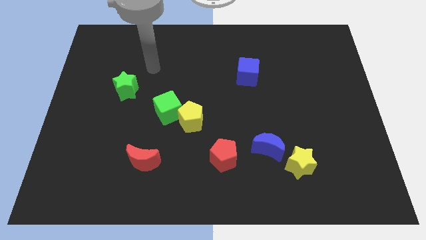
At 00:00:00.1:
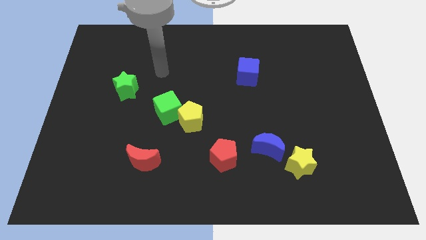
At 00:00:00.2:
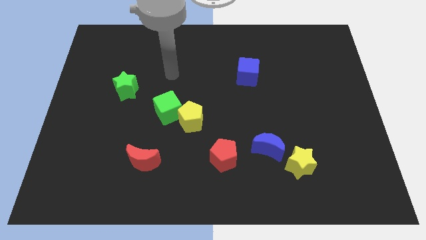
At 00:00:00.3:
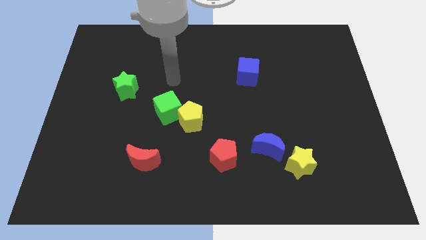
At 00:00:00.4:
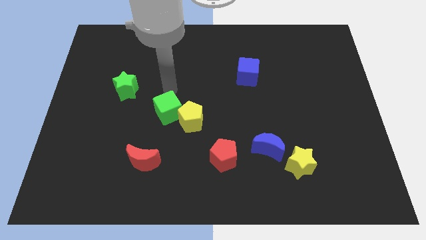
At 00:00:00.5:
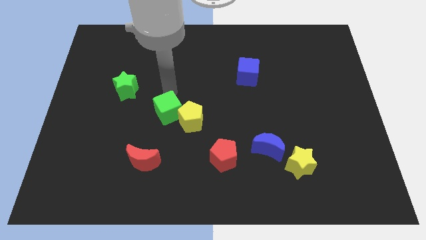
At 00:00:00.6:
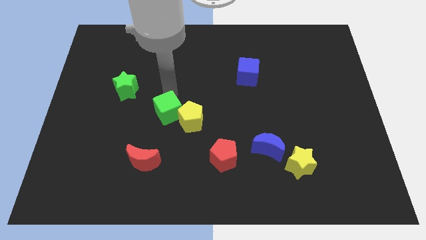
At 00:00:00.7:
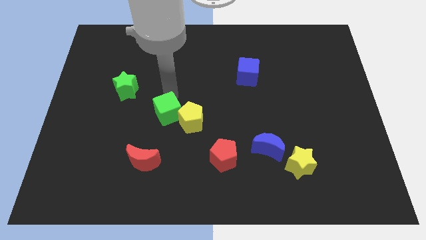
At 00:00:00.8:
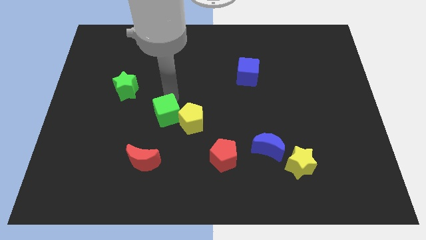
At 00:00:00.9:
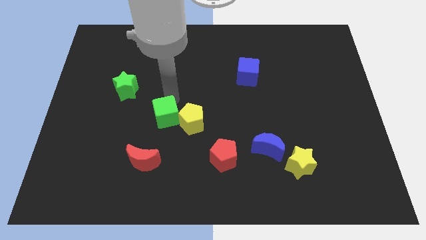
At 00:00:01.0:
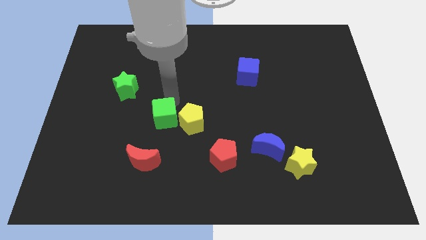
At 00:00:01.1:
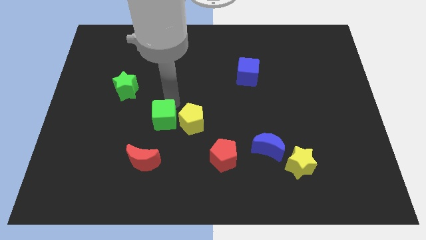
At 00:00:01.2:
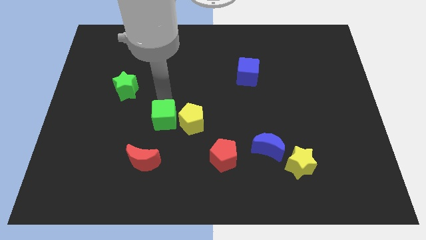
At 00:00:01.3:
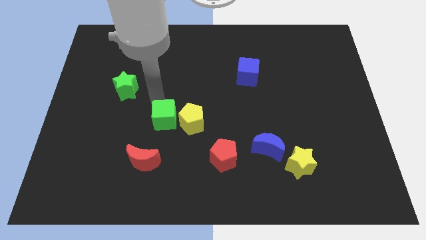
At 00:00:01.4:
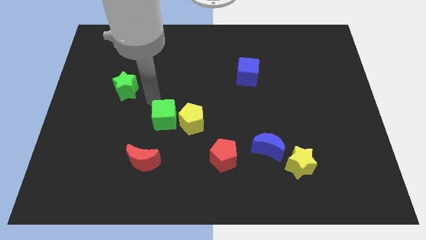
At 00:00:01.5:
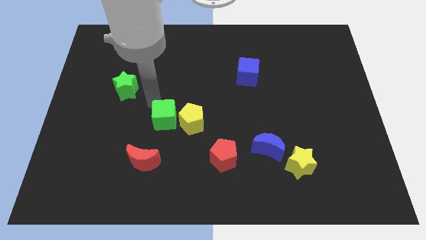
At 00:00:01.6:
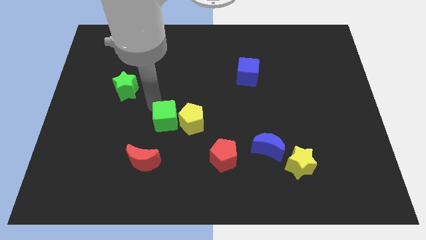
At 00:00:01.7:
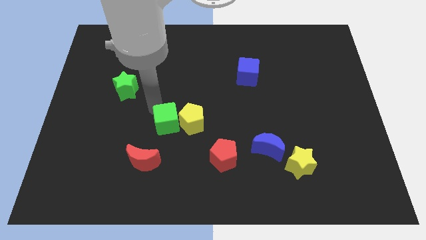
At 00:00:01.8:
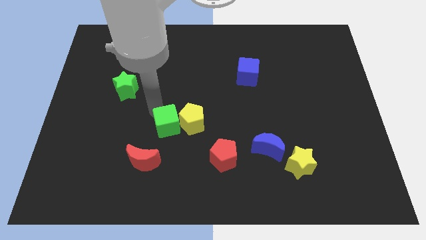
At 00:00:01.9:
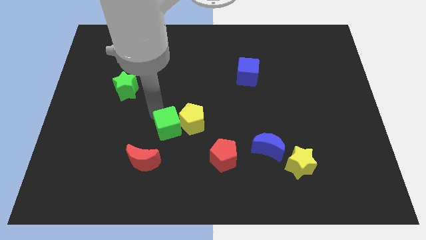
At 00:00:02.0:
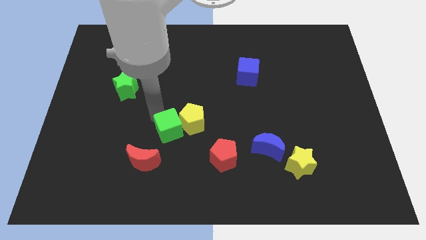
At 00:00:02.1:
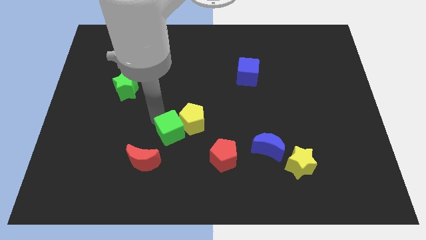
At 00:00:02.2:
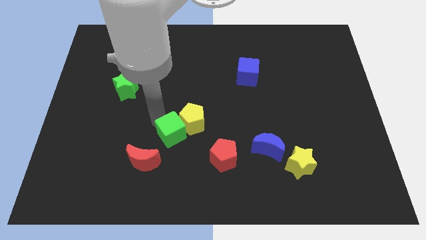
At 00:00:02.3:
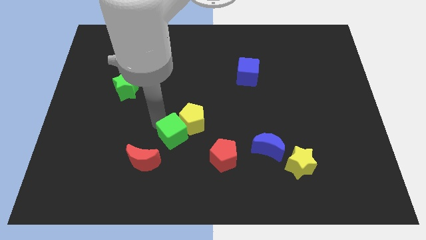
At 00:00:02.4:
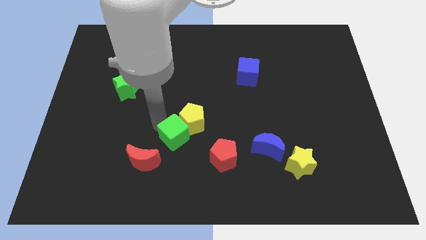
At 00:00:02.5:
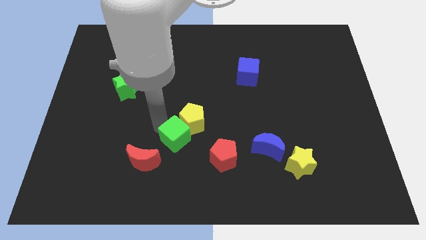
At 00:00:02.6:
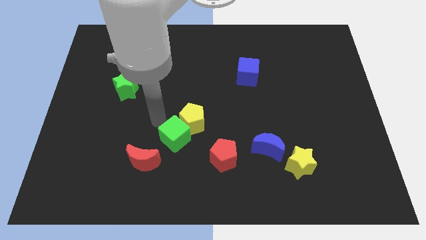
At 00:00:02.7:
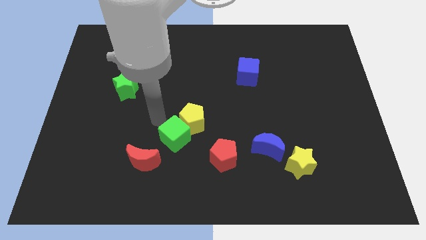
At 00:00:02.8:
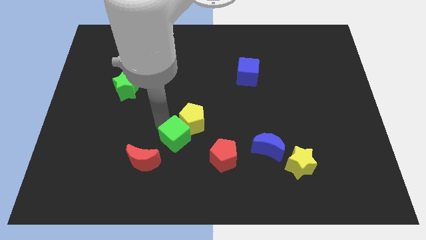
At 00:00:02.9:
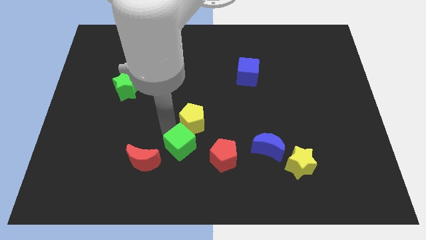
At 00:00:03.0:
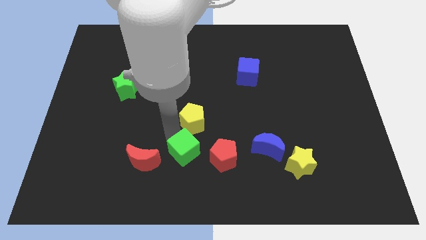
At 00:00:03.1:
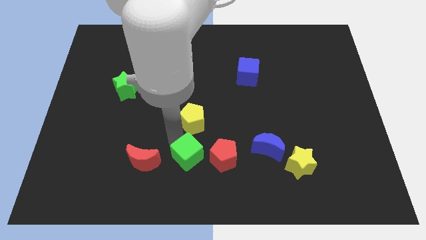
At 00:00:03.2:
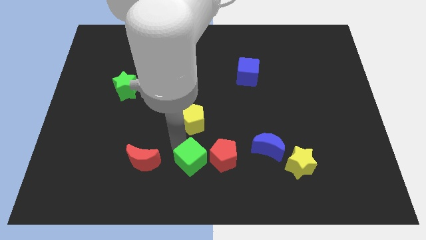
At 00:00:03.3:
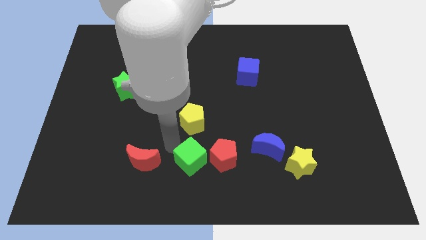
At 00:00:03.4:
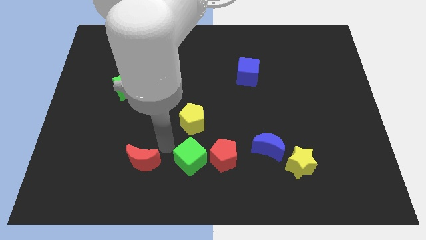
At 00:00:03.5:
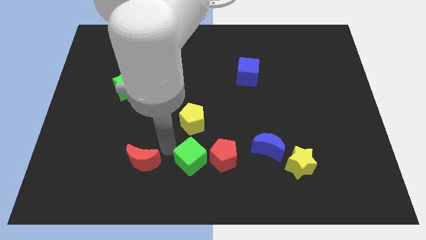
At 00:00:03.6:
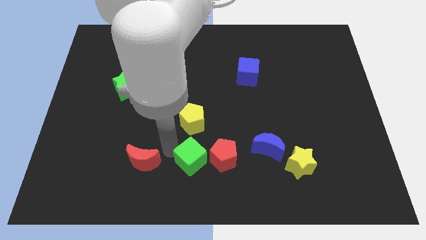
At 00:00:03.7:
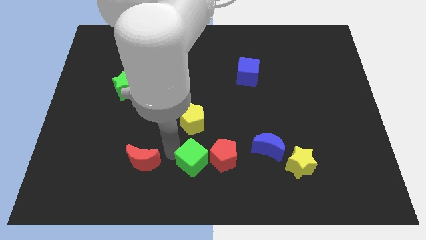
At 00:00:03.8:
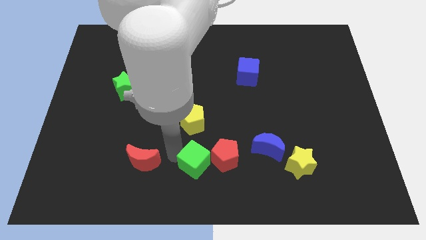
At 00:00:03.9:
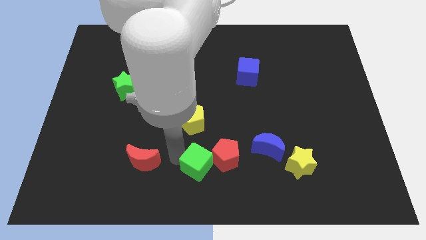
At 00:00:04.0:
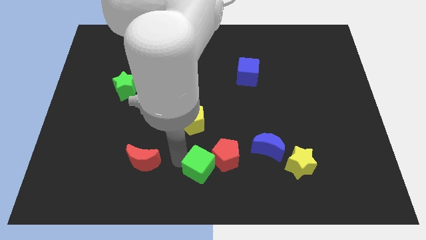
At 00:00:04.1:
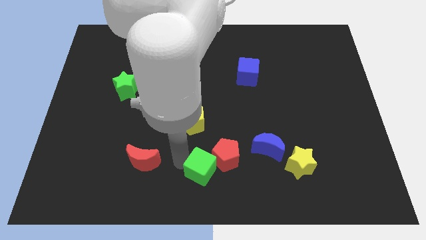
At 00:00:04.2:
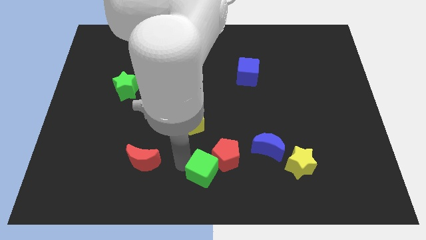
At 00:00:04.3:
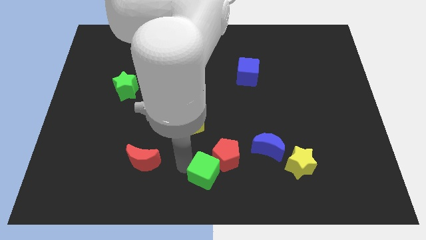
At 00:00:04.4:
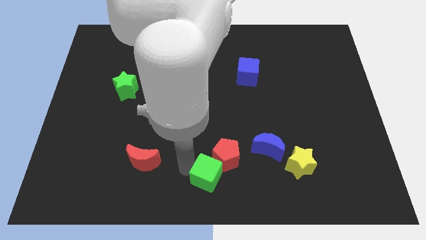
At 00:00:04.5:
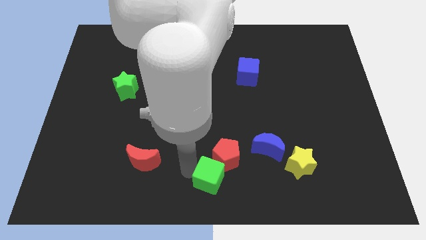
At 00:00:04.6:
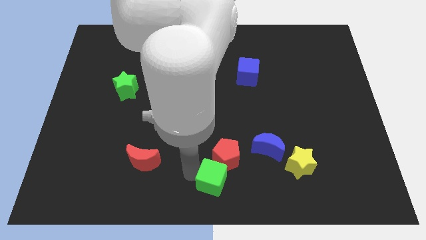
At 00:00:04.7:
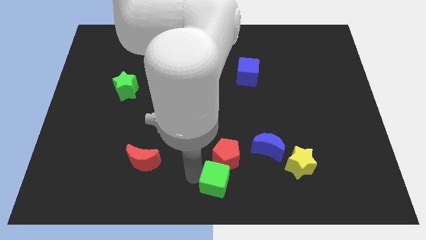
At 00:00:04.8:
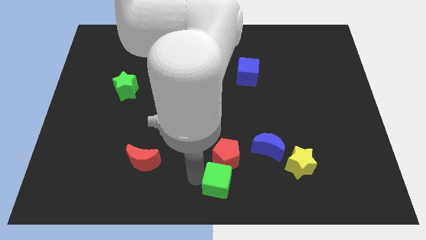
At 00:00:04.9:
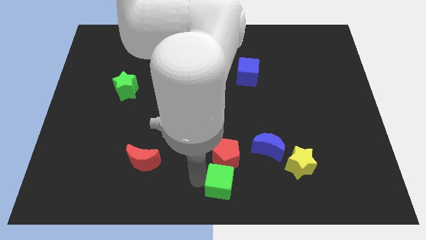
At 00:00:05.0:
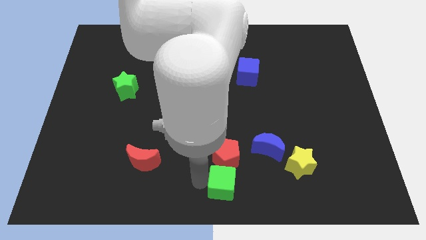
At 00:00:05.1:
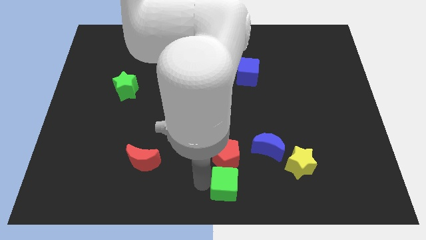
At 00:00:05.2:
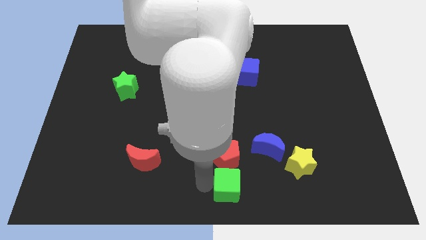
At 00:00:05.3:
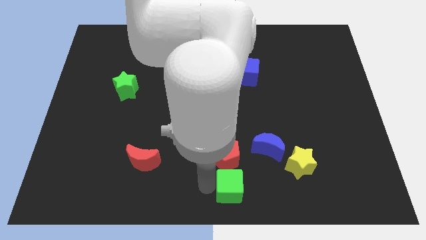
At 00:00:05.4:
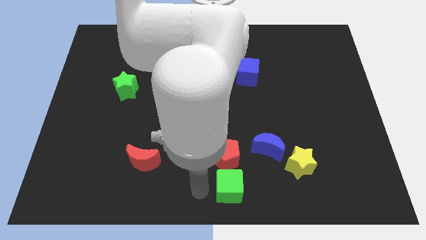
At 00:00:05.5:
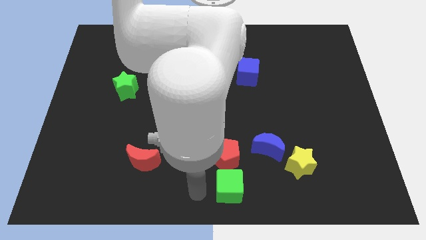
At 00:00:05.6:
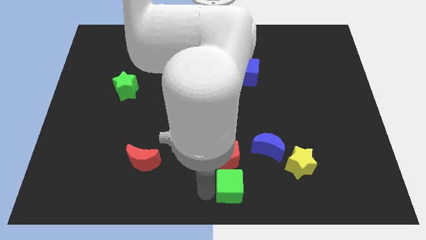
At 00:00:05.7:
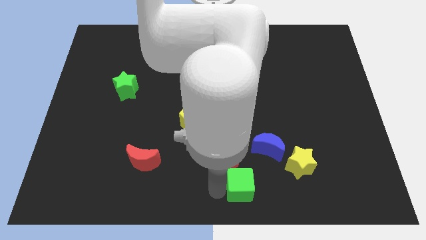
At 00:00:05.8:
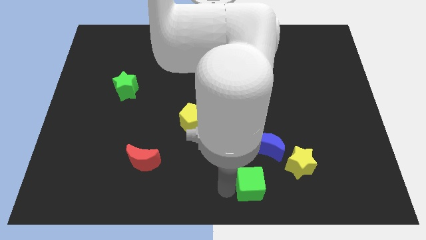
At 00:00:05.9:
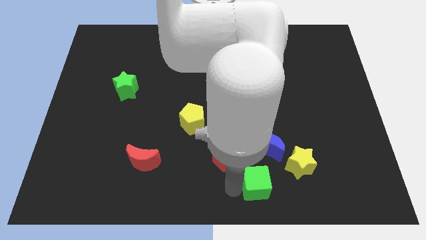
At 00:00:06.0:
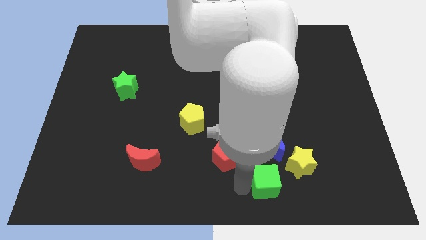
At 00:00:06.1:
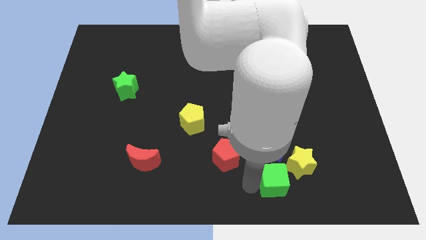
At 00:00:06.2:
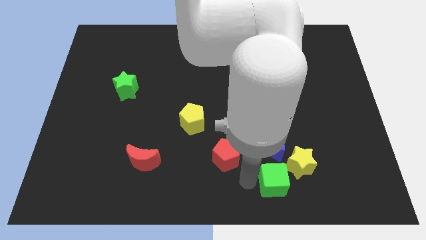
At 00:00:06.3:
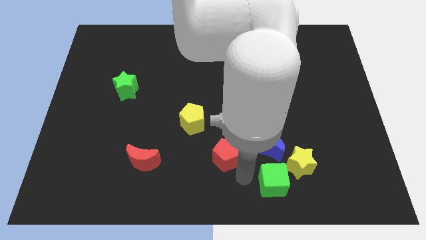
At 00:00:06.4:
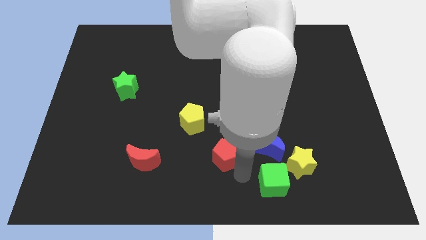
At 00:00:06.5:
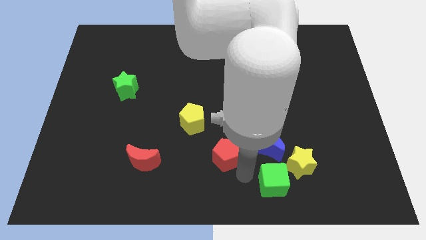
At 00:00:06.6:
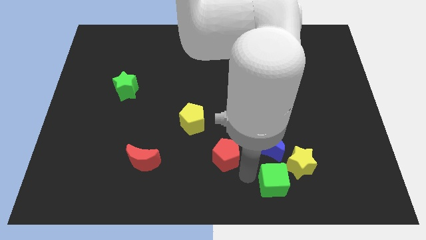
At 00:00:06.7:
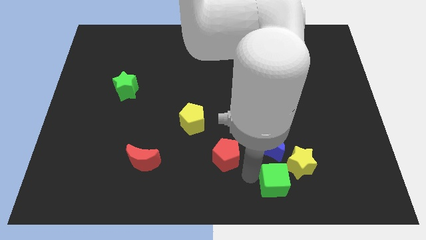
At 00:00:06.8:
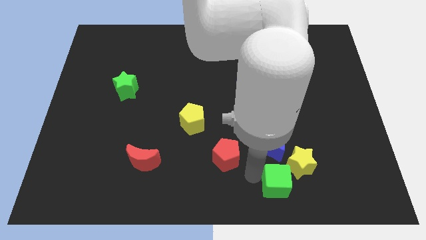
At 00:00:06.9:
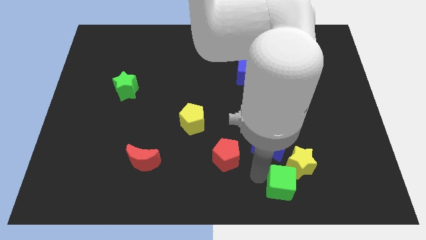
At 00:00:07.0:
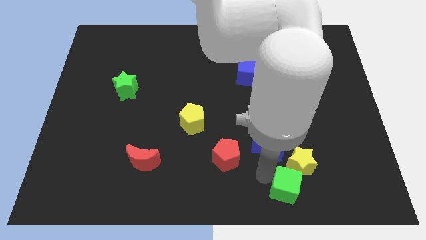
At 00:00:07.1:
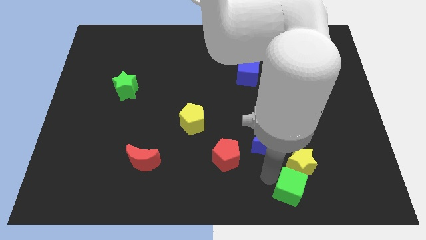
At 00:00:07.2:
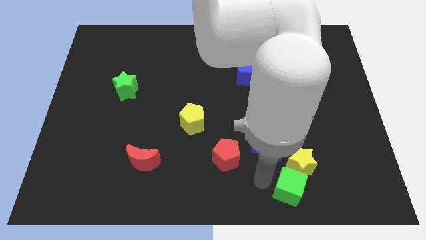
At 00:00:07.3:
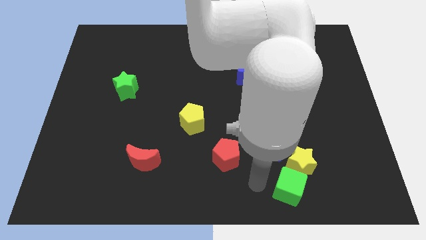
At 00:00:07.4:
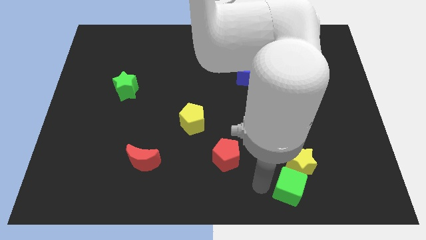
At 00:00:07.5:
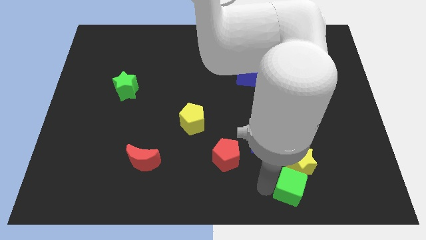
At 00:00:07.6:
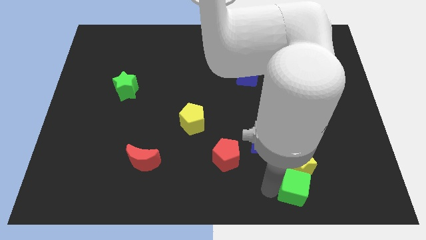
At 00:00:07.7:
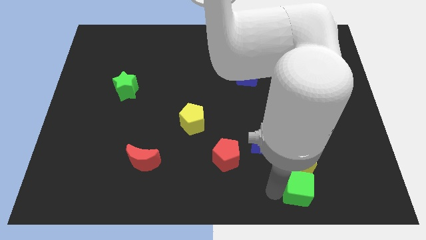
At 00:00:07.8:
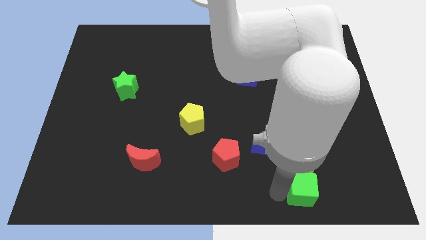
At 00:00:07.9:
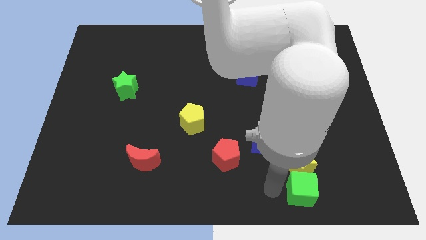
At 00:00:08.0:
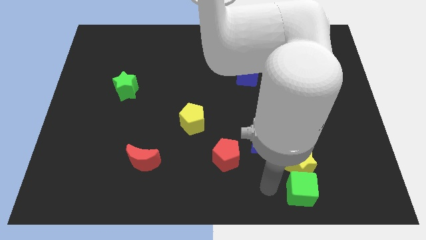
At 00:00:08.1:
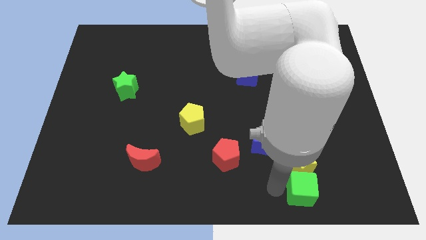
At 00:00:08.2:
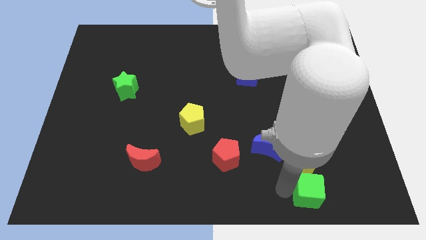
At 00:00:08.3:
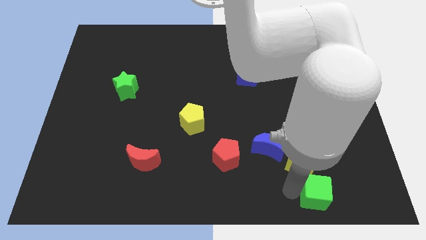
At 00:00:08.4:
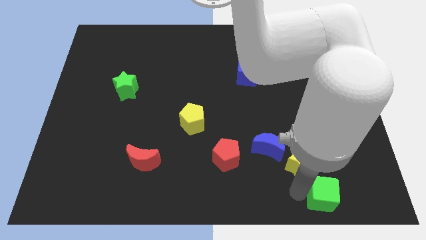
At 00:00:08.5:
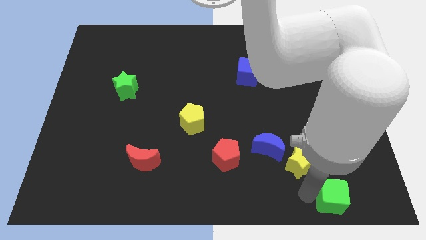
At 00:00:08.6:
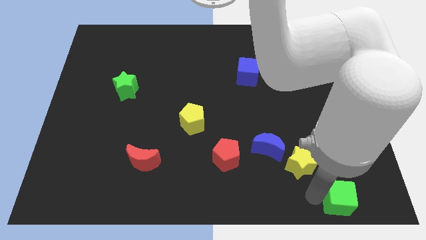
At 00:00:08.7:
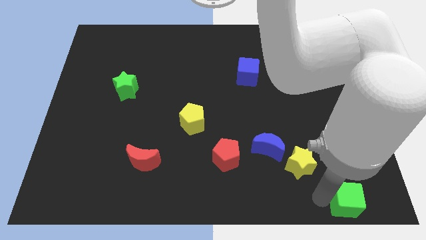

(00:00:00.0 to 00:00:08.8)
put the green cube to the bottom right corner
